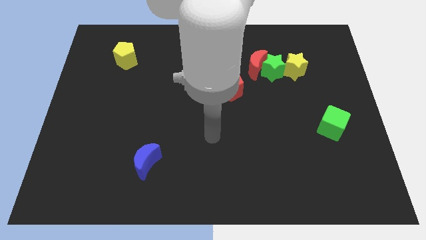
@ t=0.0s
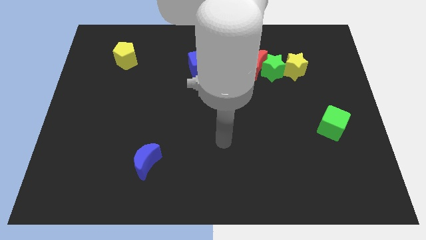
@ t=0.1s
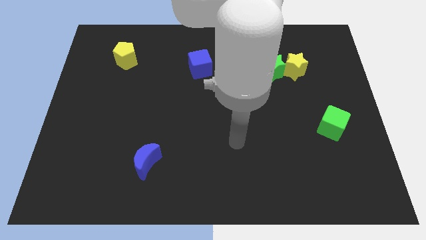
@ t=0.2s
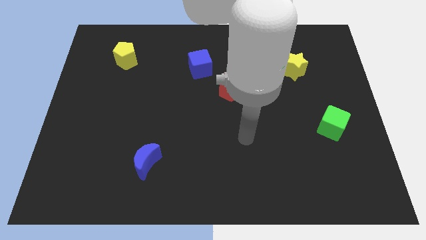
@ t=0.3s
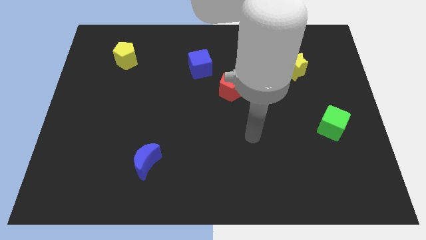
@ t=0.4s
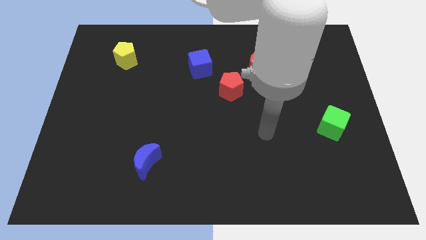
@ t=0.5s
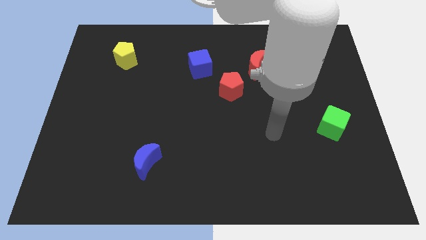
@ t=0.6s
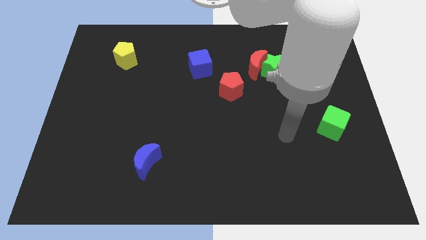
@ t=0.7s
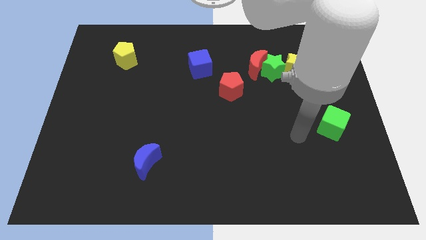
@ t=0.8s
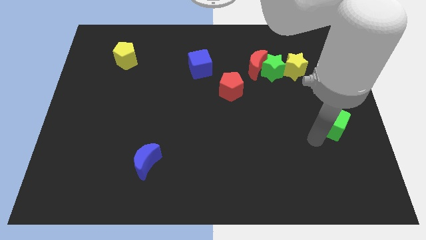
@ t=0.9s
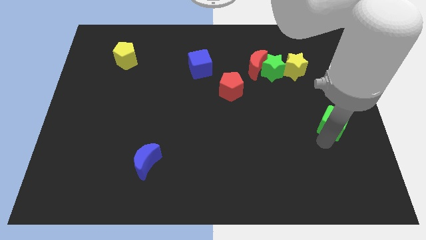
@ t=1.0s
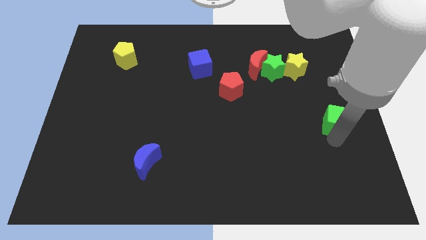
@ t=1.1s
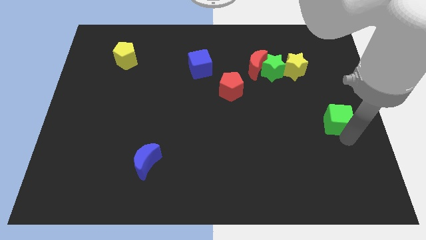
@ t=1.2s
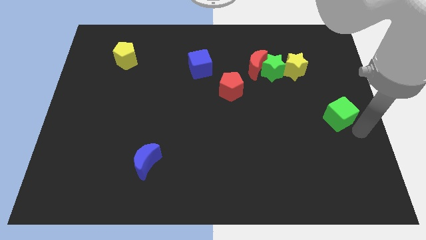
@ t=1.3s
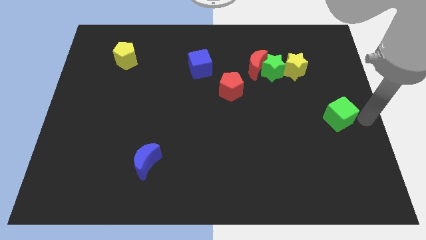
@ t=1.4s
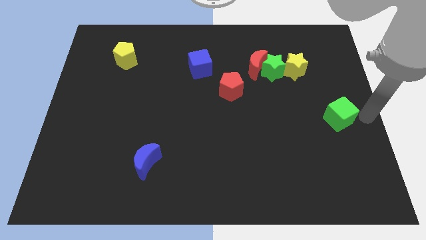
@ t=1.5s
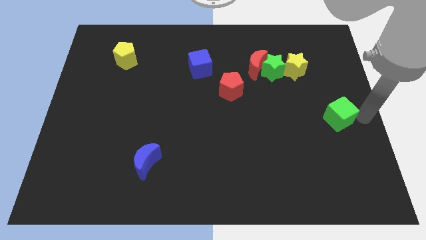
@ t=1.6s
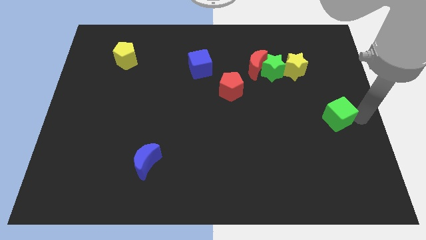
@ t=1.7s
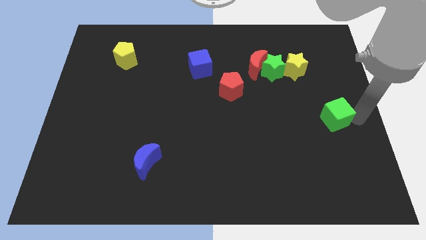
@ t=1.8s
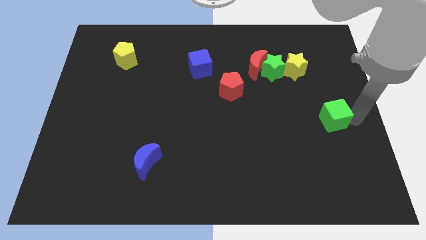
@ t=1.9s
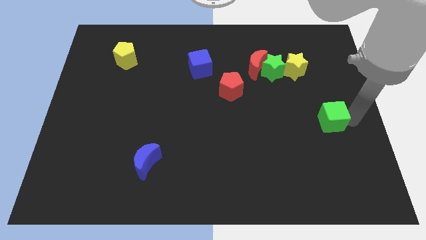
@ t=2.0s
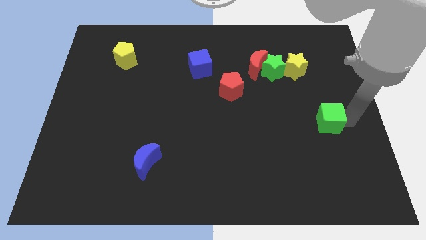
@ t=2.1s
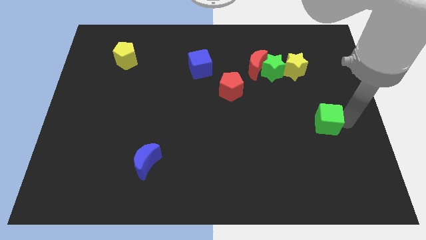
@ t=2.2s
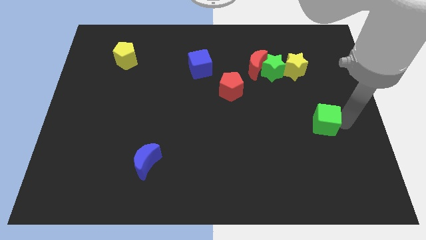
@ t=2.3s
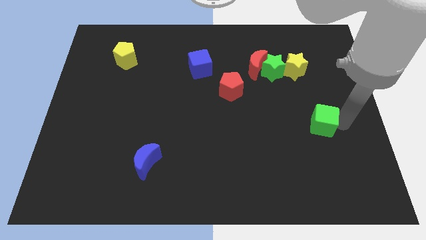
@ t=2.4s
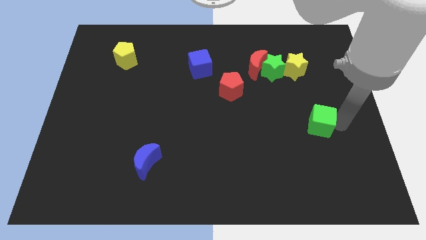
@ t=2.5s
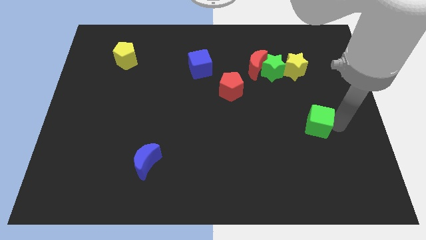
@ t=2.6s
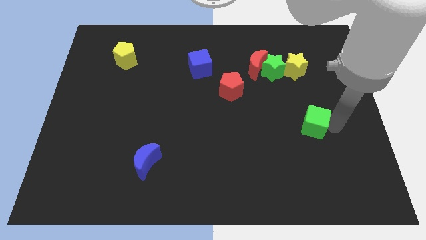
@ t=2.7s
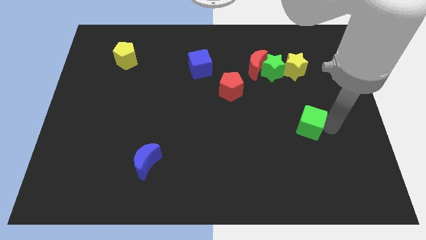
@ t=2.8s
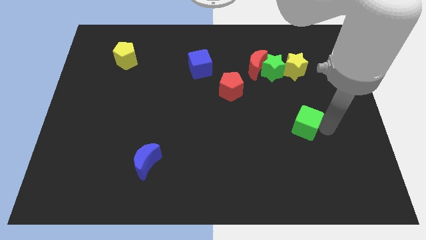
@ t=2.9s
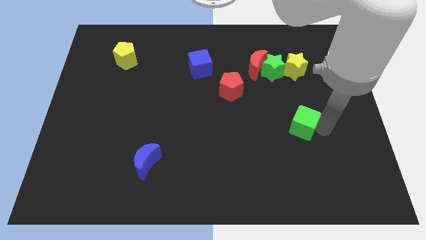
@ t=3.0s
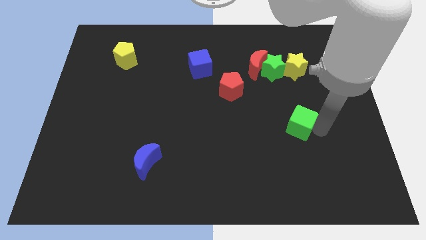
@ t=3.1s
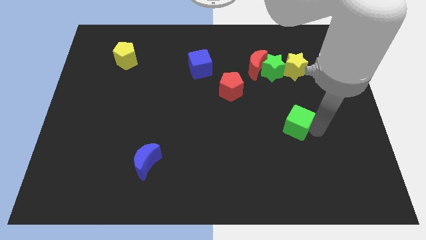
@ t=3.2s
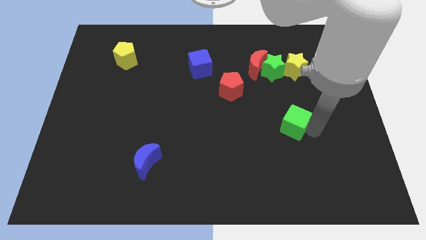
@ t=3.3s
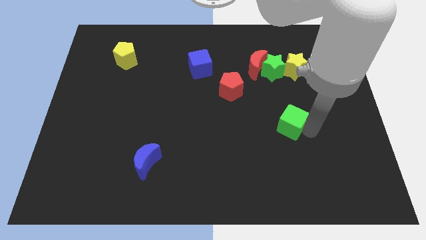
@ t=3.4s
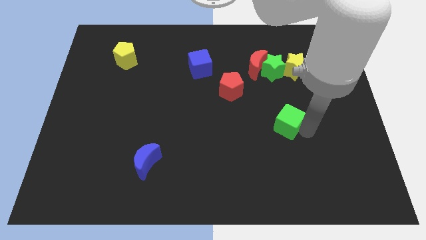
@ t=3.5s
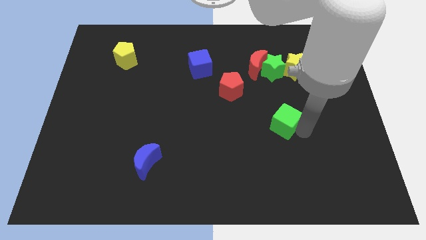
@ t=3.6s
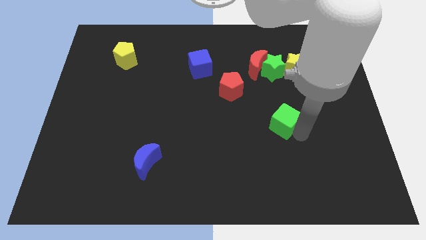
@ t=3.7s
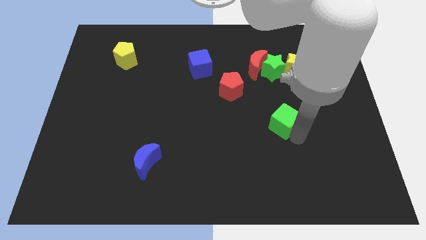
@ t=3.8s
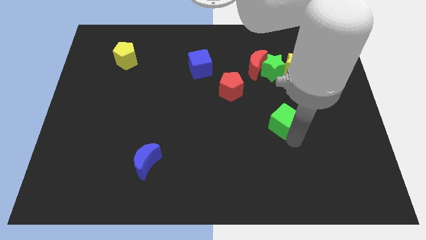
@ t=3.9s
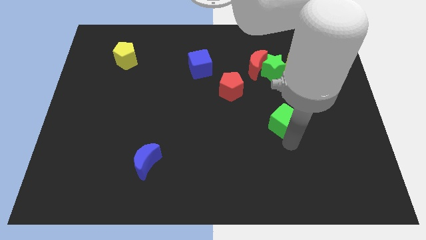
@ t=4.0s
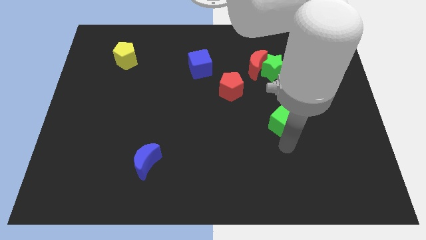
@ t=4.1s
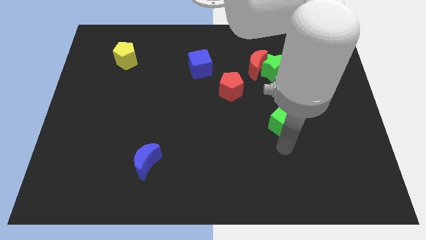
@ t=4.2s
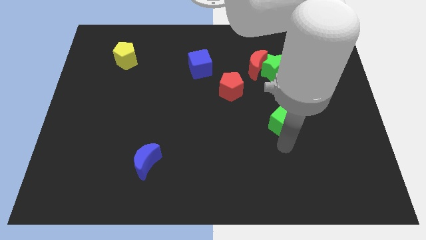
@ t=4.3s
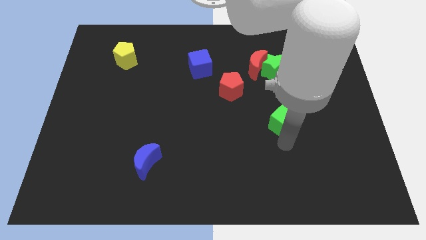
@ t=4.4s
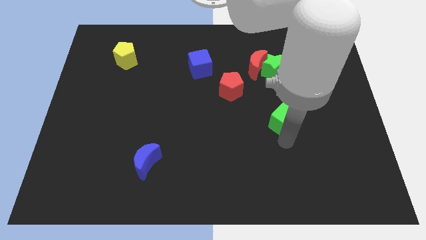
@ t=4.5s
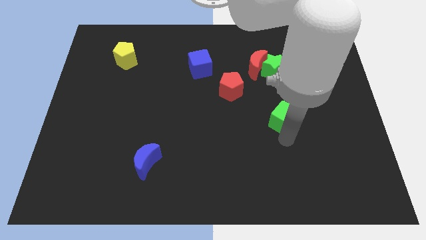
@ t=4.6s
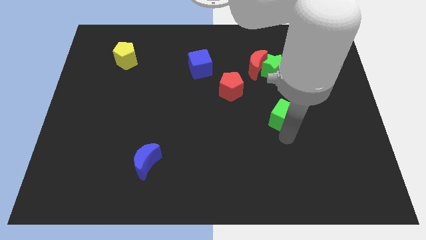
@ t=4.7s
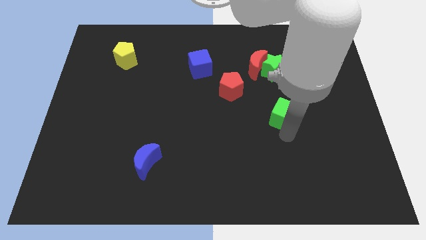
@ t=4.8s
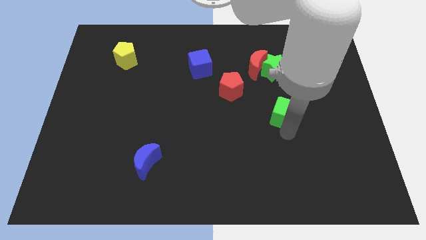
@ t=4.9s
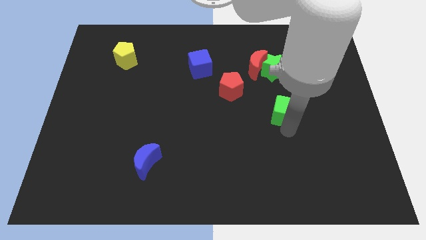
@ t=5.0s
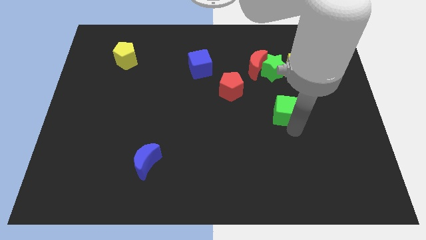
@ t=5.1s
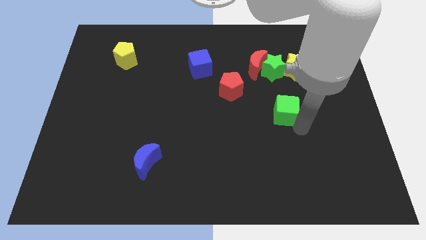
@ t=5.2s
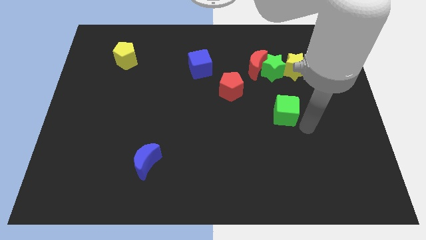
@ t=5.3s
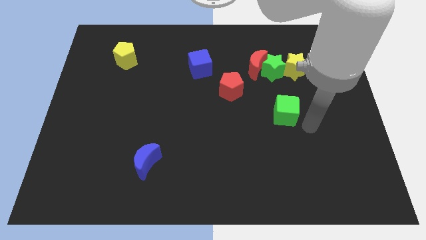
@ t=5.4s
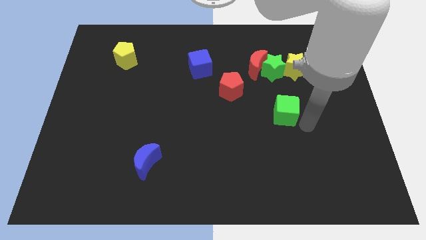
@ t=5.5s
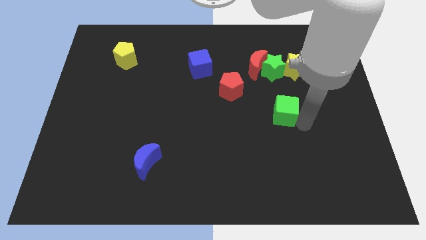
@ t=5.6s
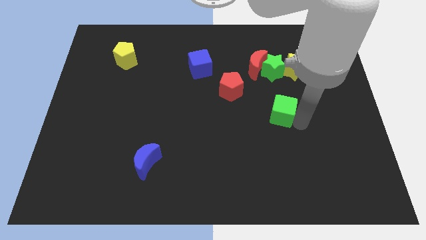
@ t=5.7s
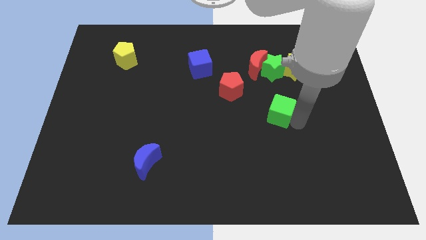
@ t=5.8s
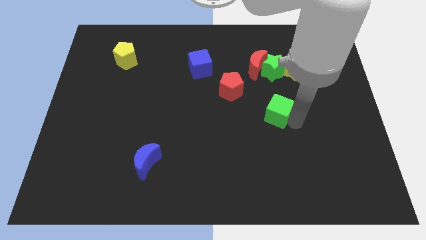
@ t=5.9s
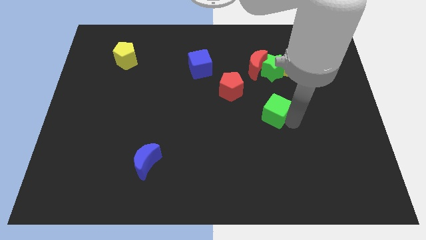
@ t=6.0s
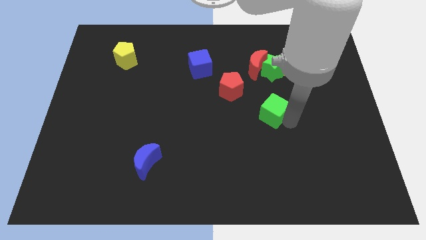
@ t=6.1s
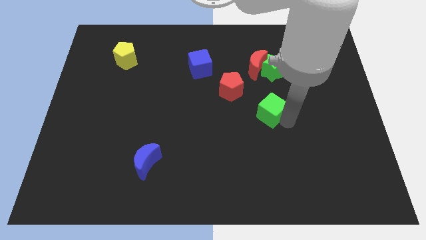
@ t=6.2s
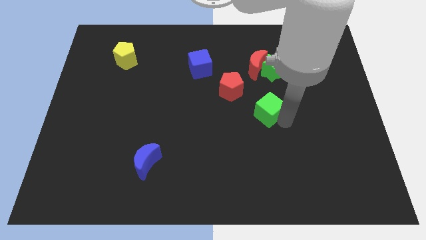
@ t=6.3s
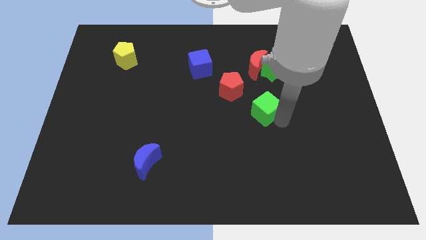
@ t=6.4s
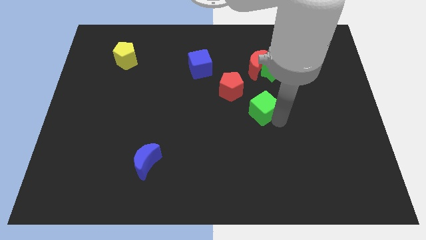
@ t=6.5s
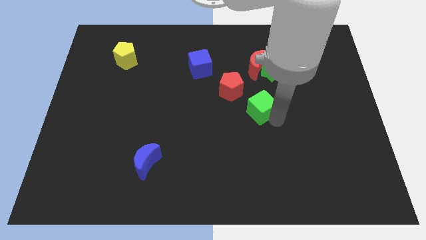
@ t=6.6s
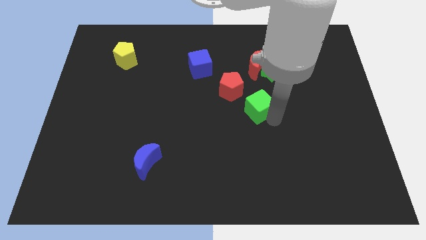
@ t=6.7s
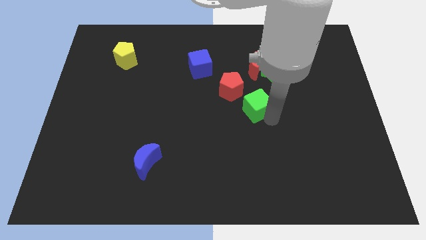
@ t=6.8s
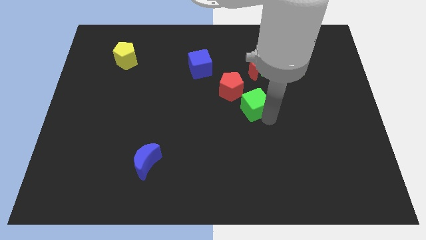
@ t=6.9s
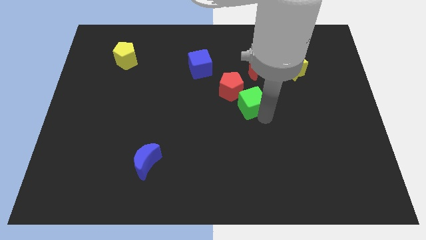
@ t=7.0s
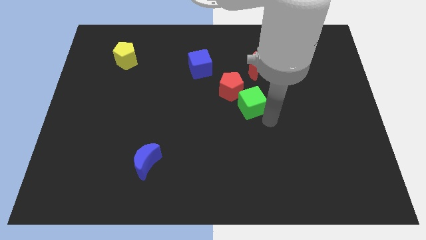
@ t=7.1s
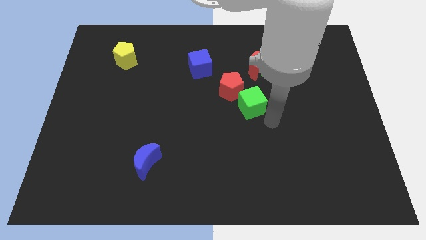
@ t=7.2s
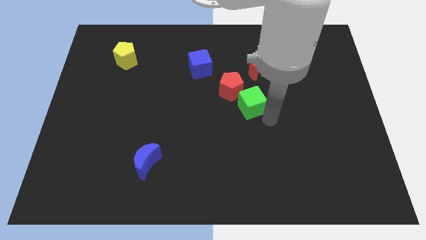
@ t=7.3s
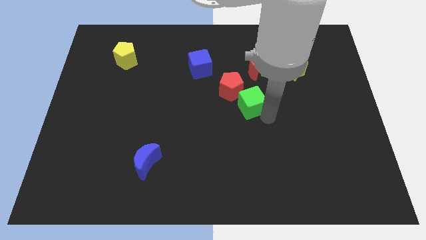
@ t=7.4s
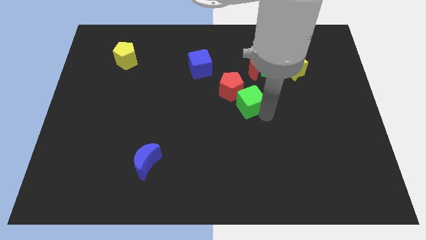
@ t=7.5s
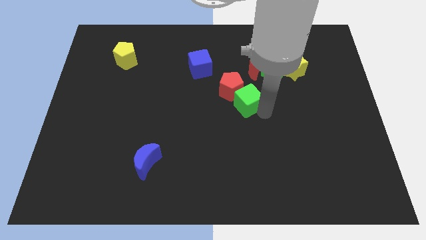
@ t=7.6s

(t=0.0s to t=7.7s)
put the green cube close to the red pentagon
